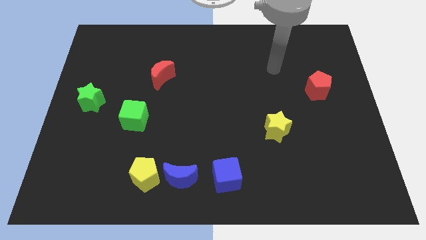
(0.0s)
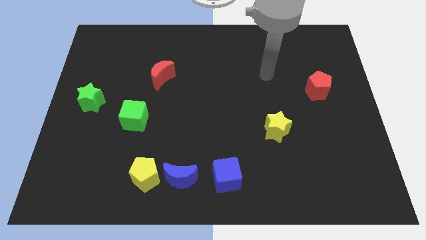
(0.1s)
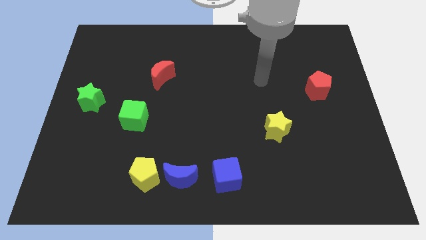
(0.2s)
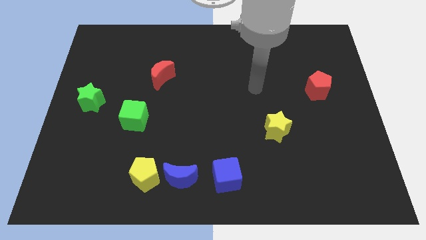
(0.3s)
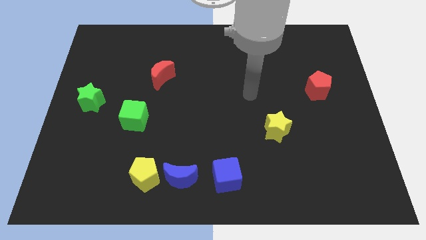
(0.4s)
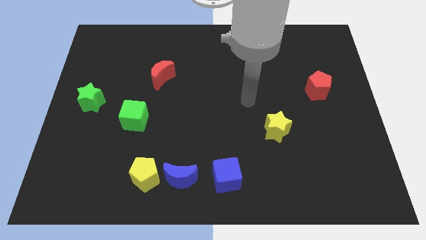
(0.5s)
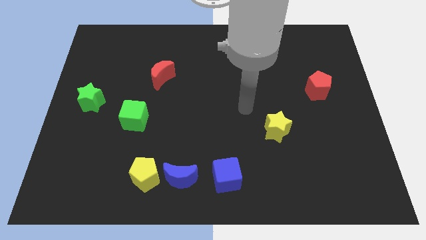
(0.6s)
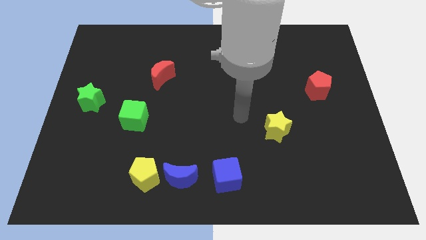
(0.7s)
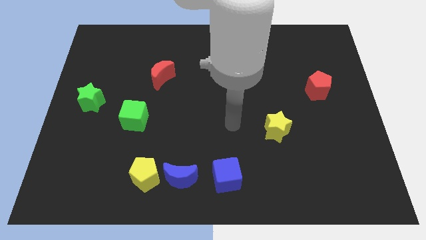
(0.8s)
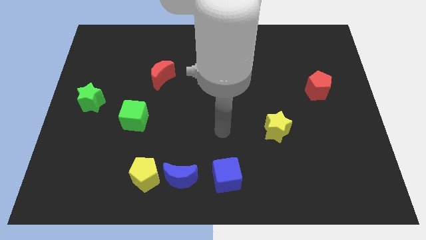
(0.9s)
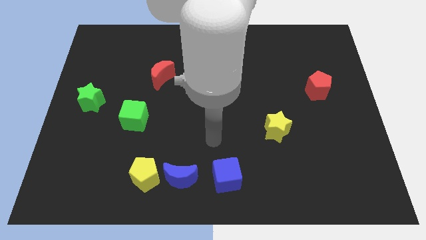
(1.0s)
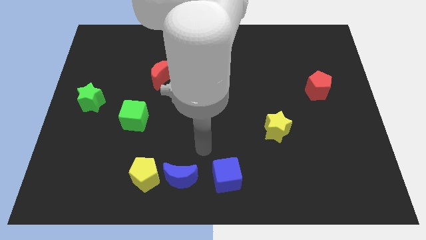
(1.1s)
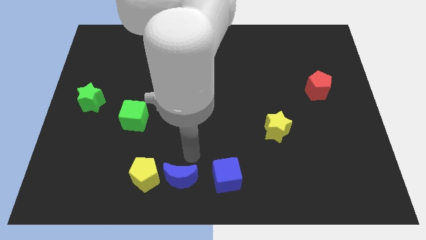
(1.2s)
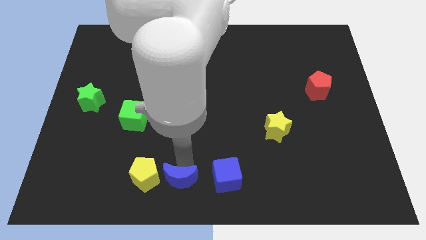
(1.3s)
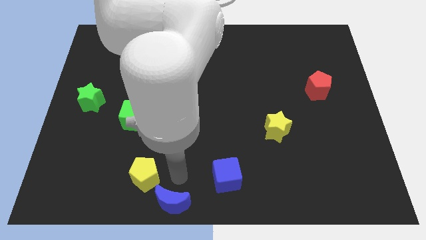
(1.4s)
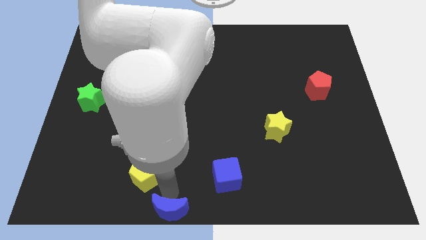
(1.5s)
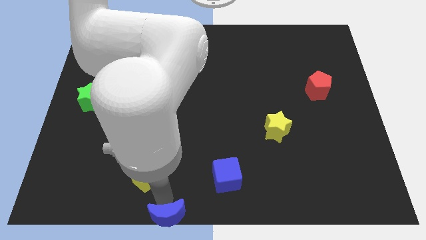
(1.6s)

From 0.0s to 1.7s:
move the yellow pentagon away from the blue moon

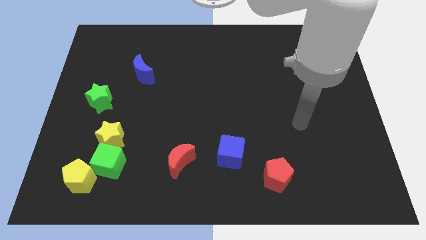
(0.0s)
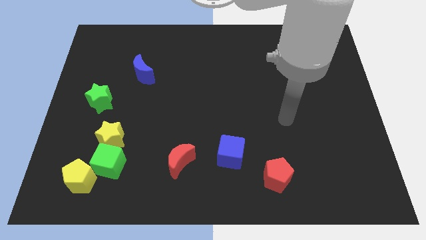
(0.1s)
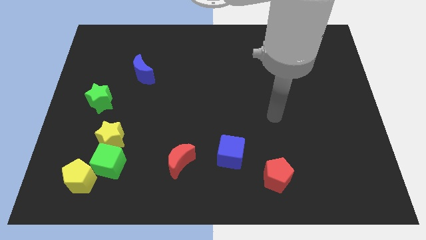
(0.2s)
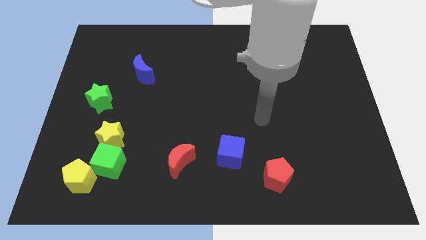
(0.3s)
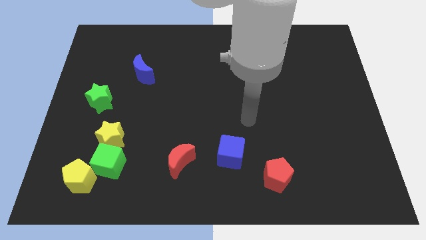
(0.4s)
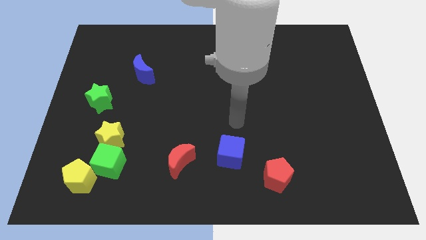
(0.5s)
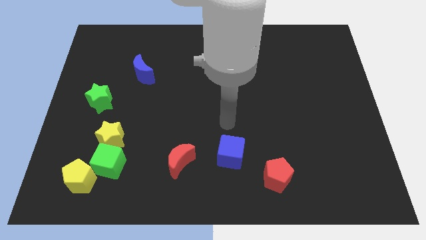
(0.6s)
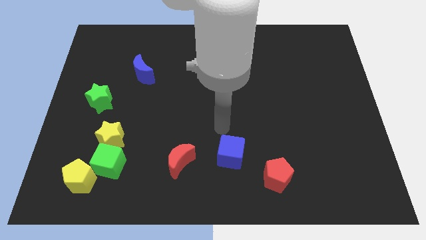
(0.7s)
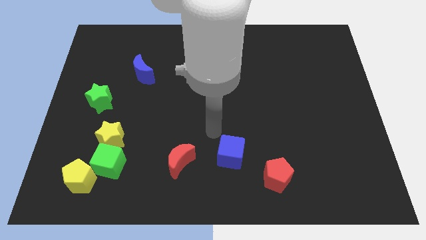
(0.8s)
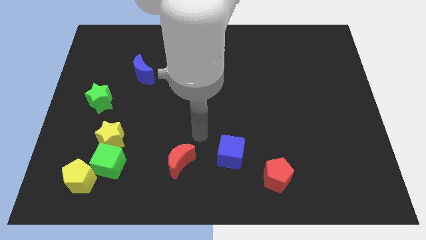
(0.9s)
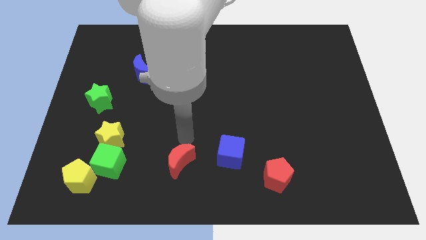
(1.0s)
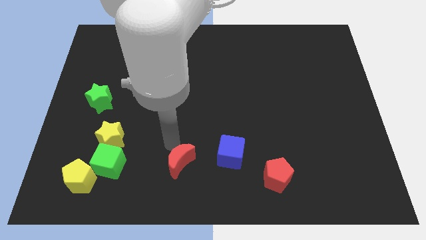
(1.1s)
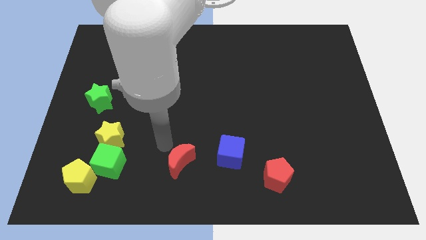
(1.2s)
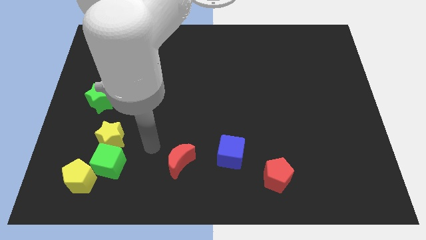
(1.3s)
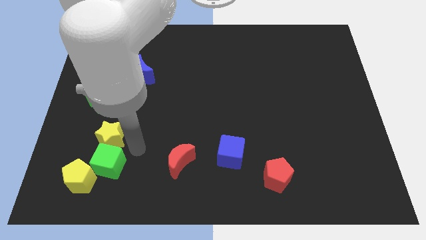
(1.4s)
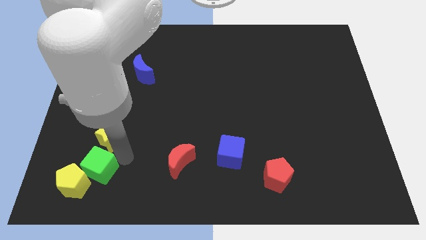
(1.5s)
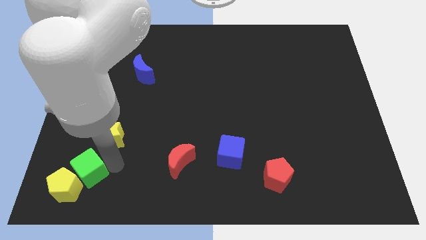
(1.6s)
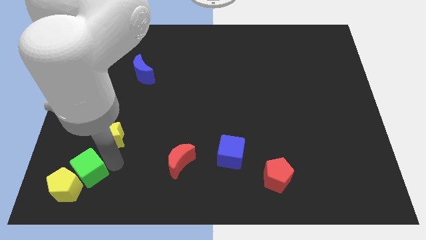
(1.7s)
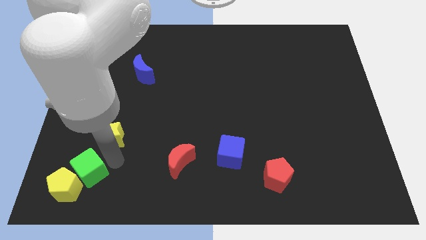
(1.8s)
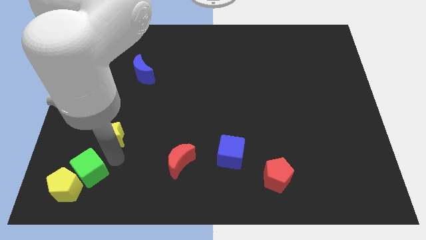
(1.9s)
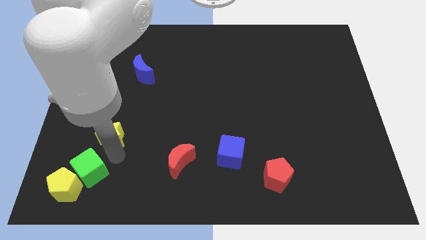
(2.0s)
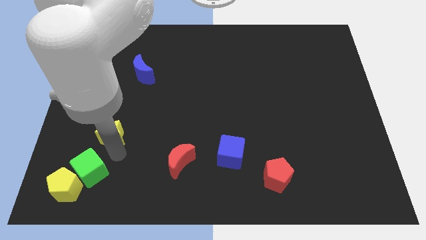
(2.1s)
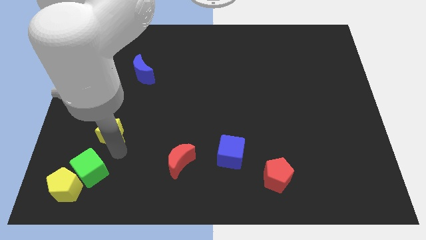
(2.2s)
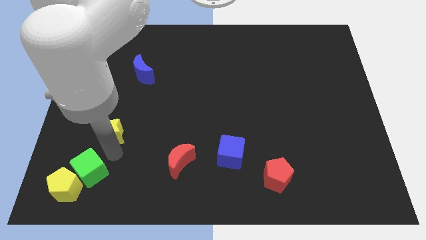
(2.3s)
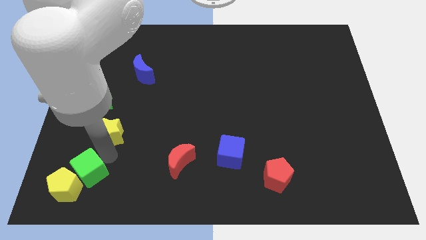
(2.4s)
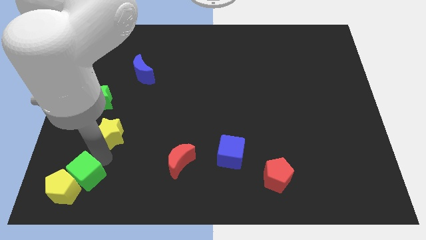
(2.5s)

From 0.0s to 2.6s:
pull the yellow star apart from the green cube

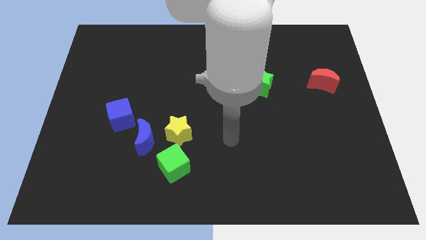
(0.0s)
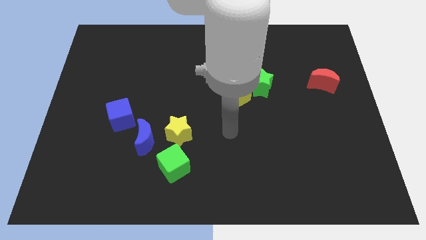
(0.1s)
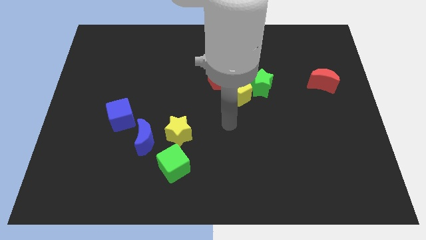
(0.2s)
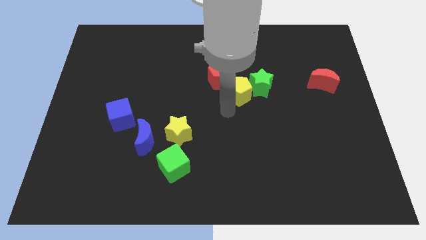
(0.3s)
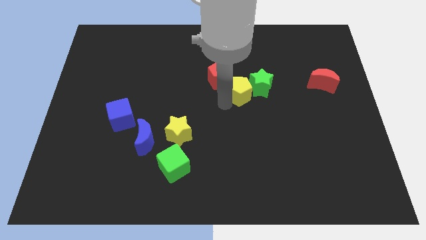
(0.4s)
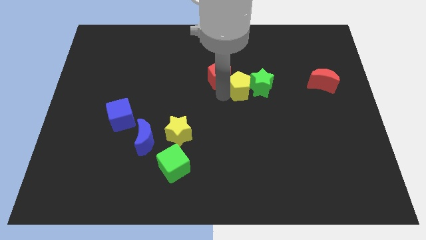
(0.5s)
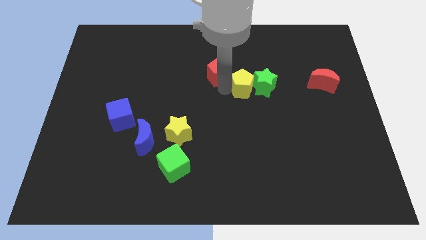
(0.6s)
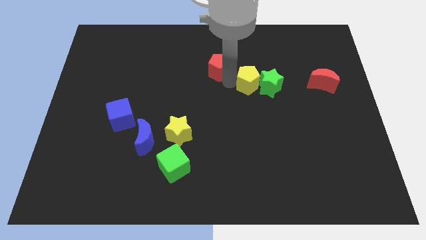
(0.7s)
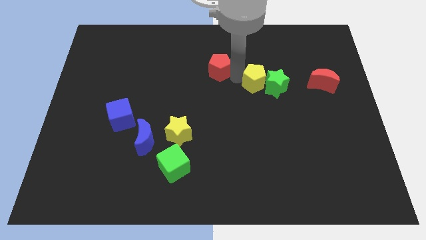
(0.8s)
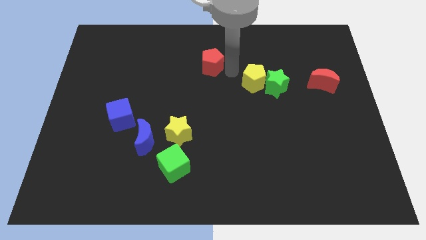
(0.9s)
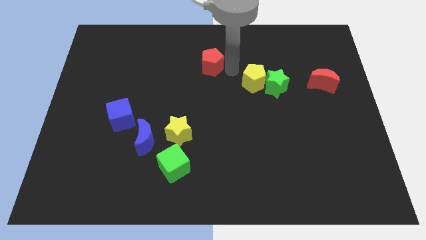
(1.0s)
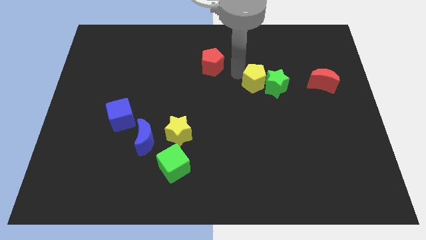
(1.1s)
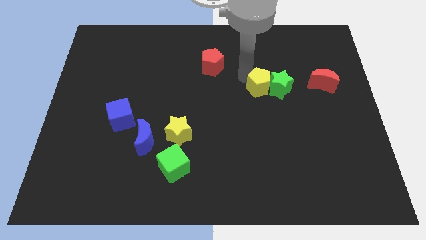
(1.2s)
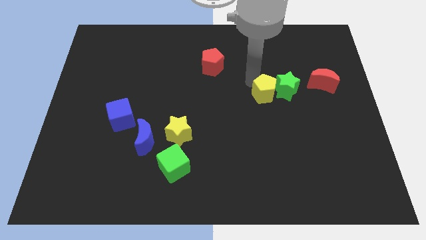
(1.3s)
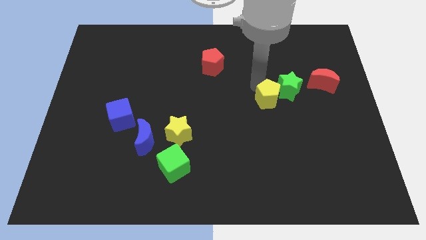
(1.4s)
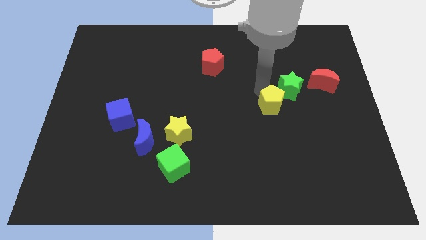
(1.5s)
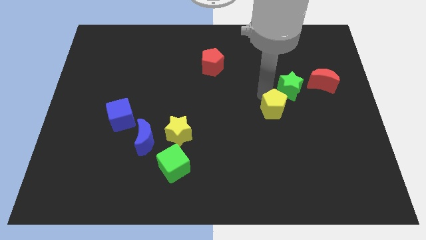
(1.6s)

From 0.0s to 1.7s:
move the yellow pentagon away from the green star and red pentagon

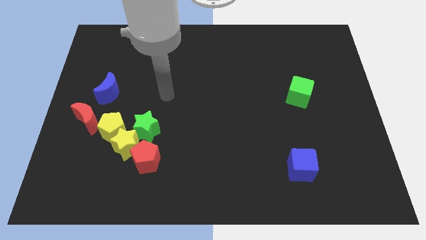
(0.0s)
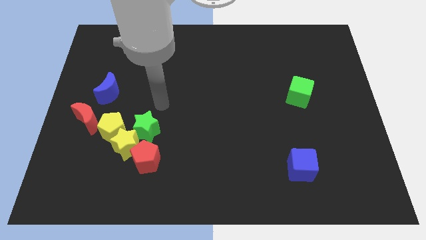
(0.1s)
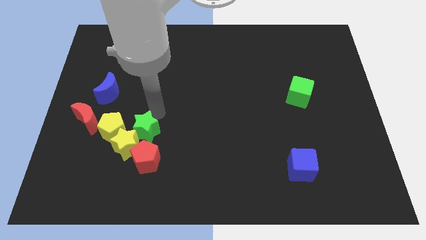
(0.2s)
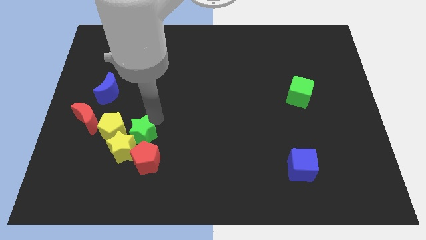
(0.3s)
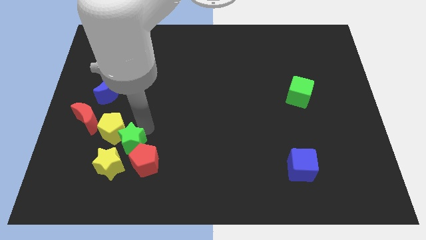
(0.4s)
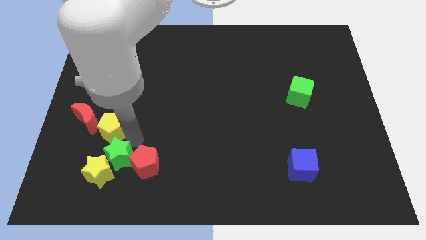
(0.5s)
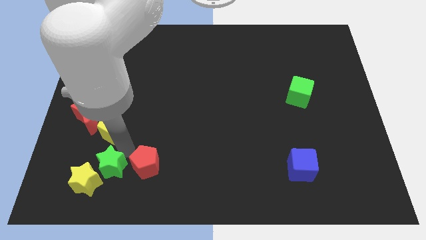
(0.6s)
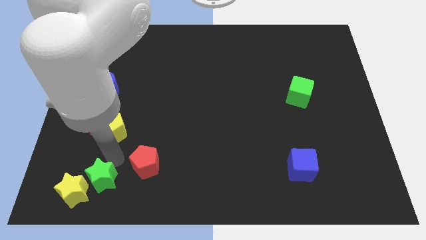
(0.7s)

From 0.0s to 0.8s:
move the yellow star away from the yellow pentagon, green star, and red pentagon

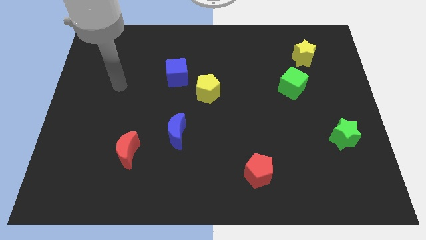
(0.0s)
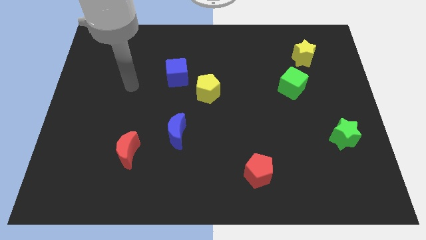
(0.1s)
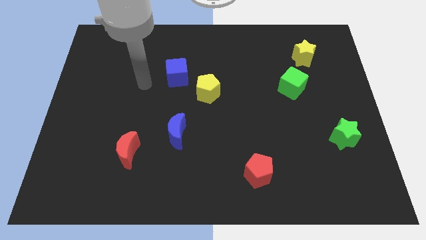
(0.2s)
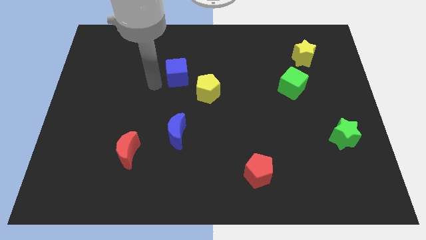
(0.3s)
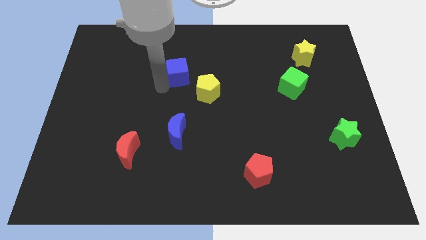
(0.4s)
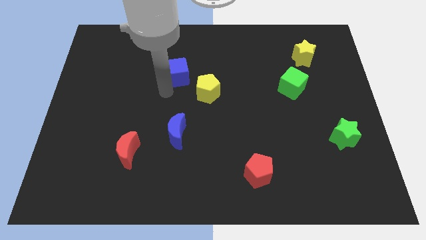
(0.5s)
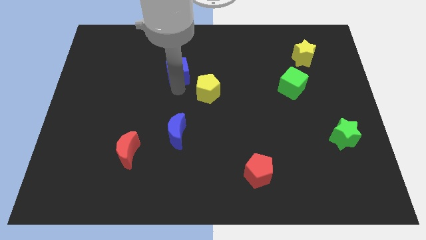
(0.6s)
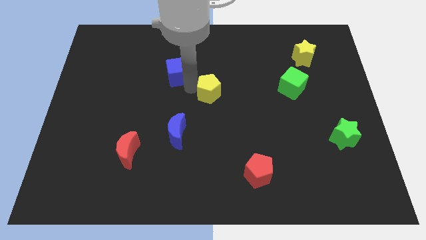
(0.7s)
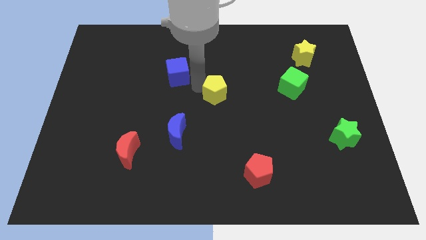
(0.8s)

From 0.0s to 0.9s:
move the blue cube away from the yellow pentagon

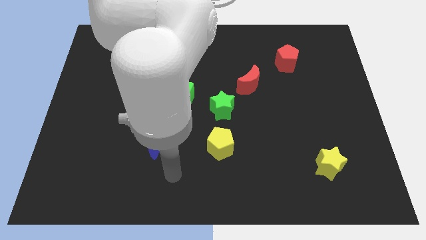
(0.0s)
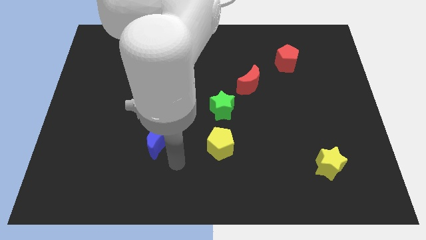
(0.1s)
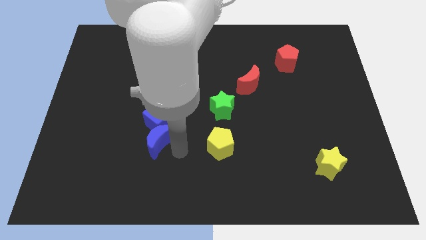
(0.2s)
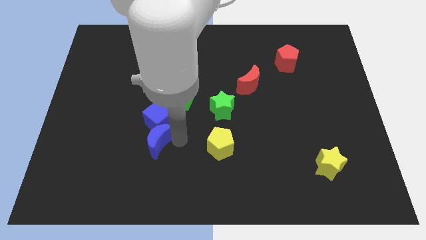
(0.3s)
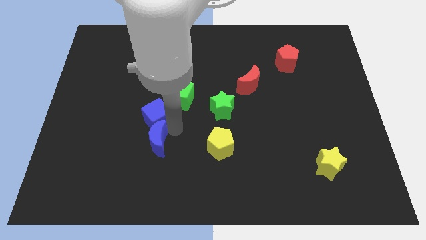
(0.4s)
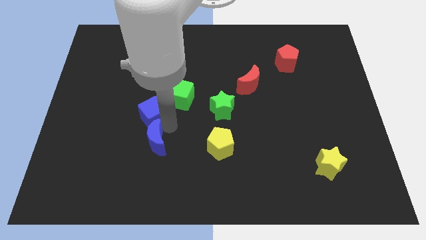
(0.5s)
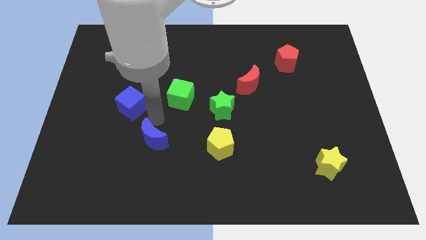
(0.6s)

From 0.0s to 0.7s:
move the blue moon away from the blue cube

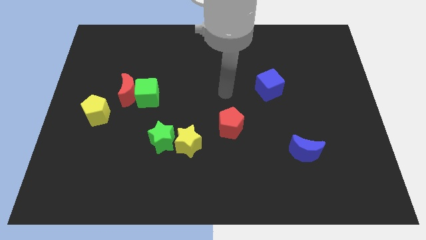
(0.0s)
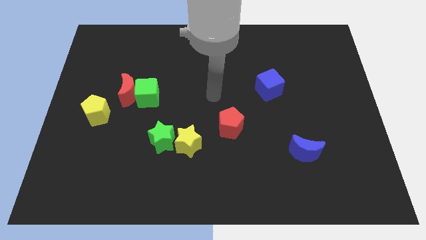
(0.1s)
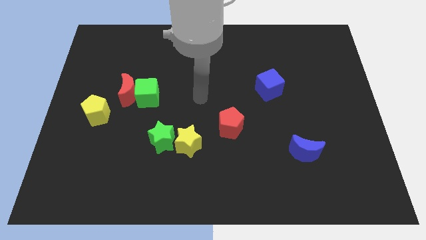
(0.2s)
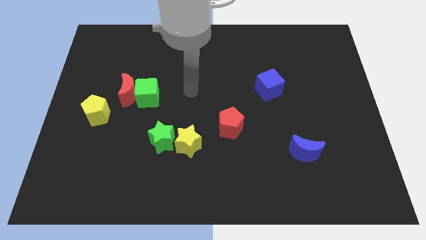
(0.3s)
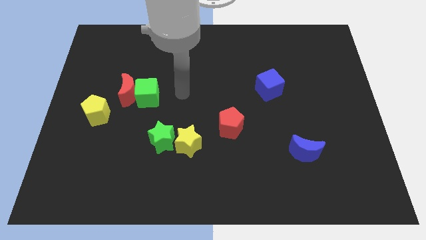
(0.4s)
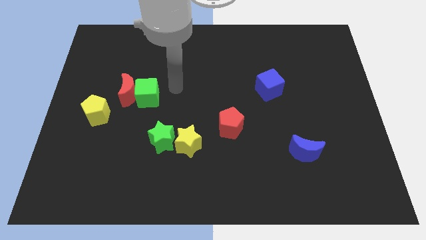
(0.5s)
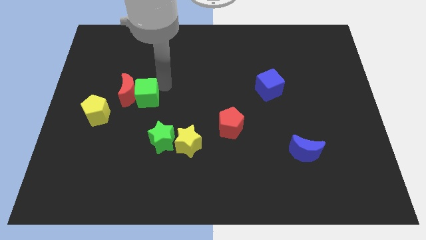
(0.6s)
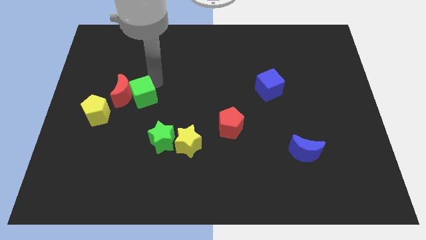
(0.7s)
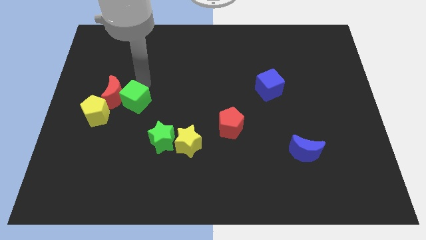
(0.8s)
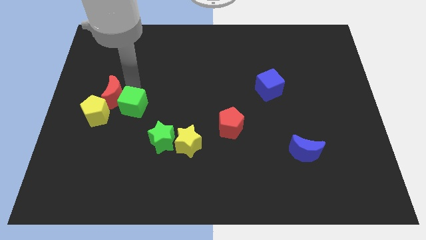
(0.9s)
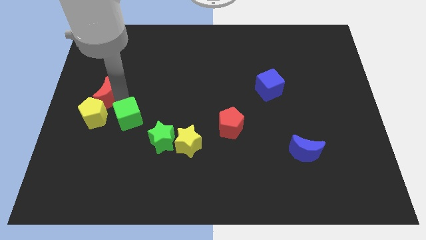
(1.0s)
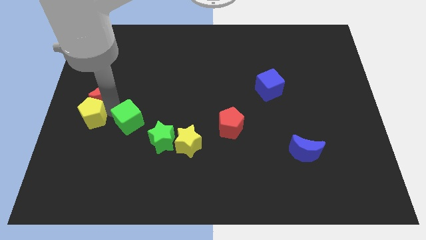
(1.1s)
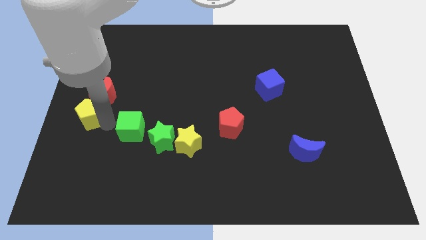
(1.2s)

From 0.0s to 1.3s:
pull the green cube apart from the red moon
